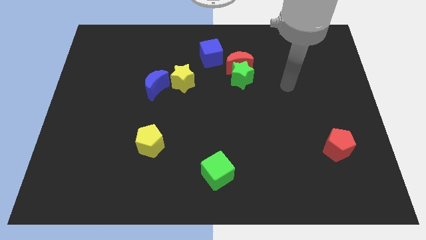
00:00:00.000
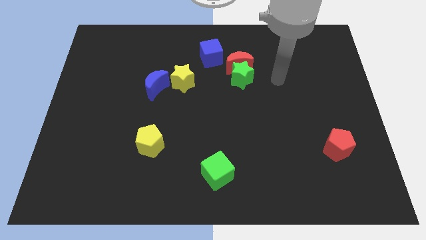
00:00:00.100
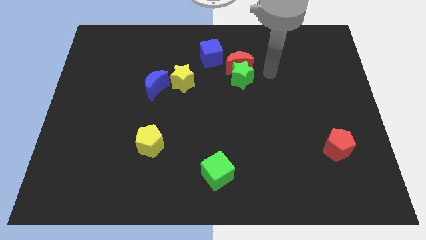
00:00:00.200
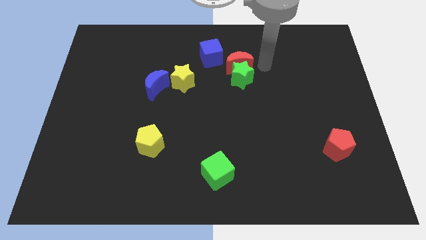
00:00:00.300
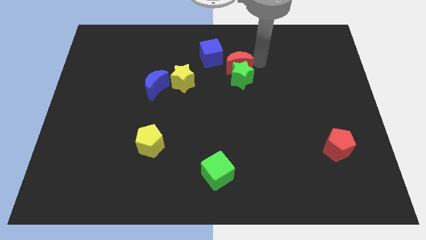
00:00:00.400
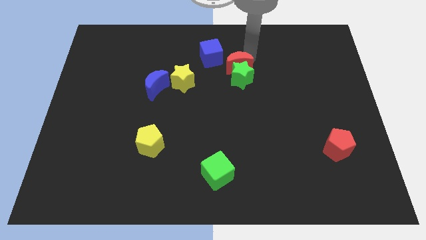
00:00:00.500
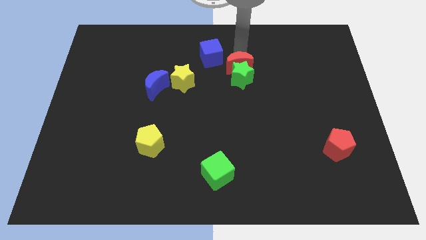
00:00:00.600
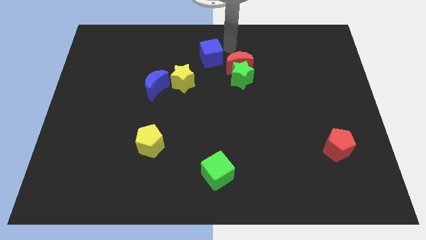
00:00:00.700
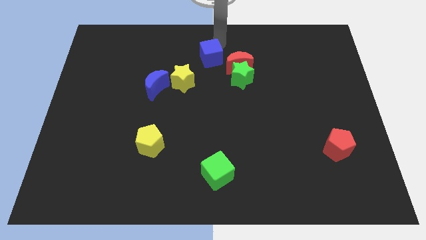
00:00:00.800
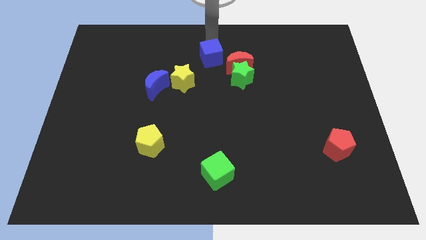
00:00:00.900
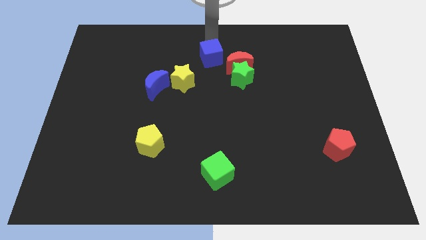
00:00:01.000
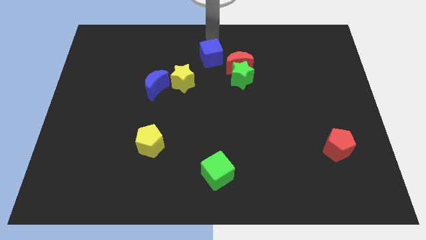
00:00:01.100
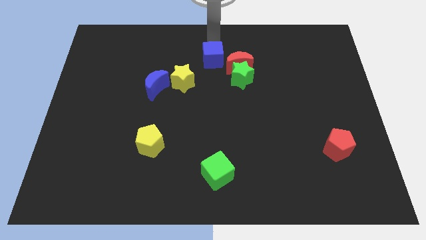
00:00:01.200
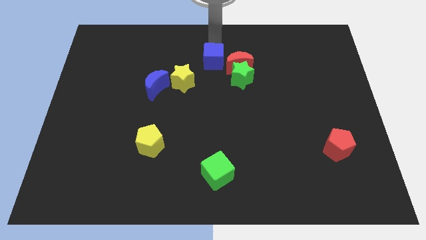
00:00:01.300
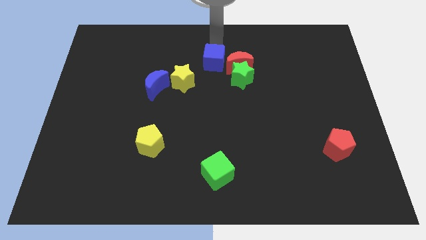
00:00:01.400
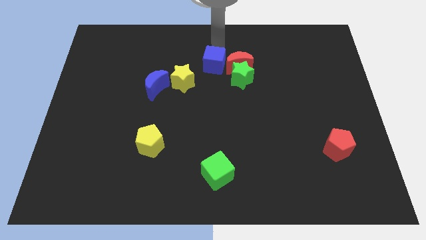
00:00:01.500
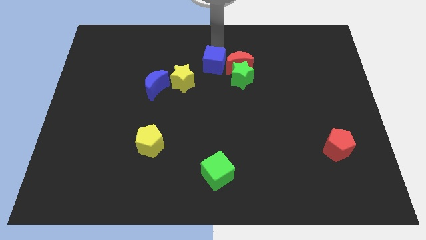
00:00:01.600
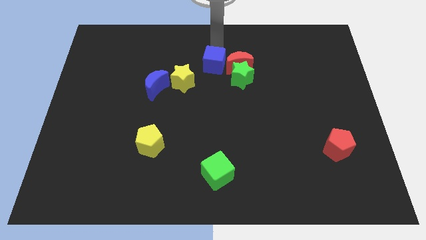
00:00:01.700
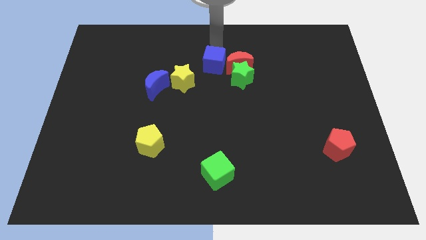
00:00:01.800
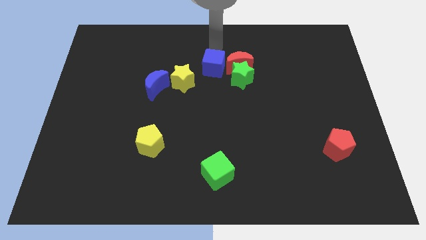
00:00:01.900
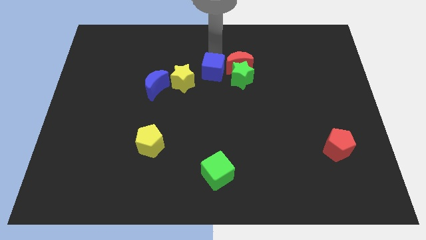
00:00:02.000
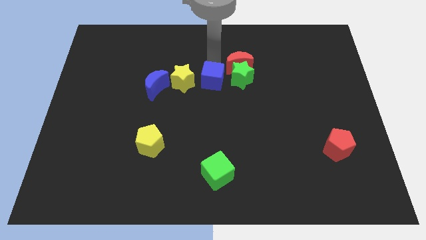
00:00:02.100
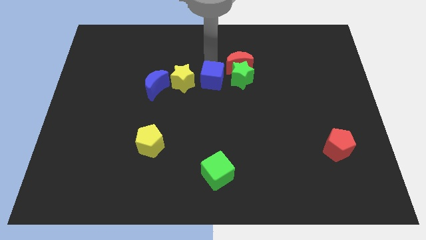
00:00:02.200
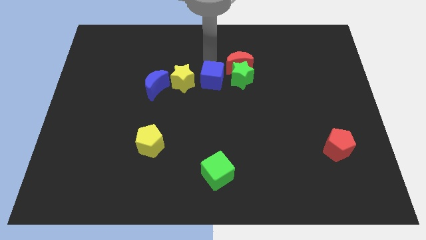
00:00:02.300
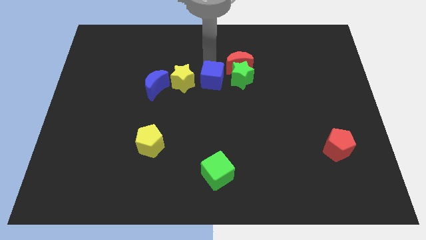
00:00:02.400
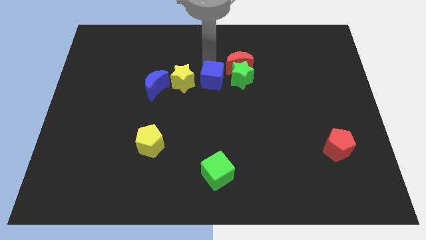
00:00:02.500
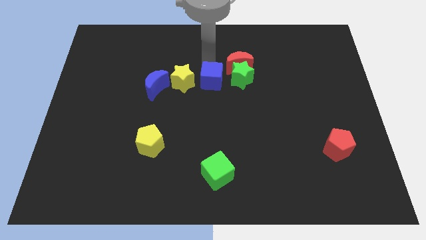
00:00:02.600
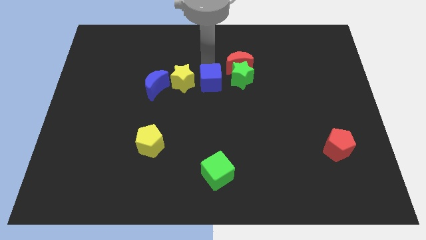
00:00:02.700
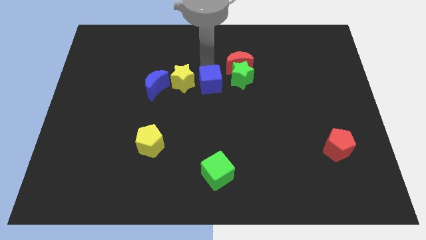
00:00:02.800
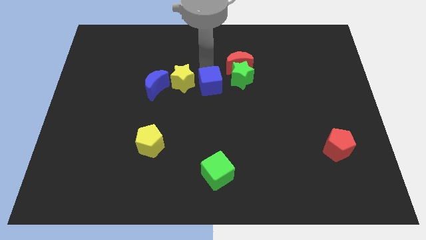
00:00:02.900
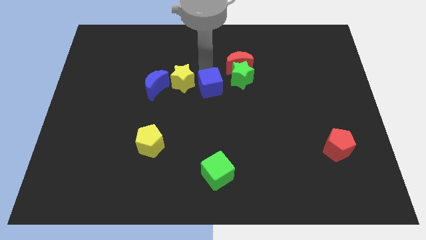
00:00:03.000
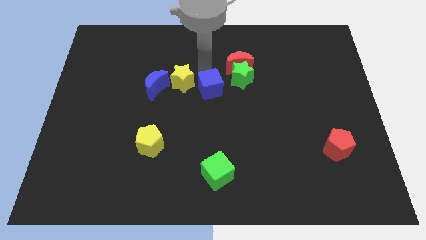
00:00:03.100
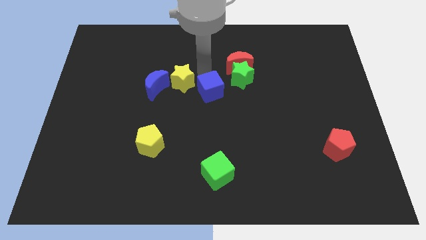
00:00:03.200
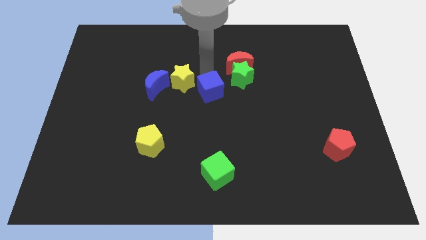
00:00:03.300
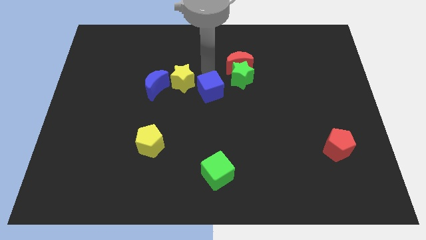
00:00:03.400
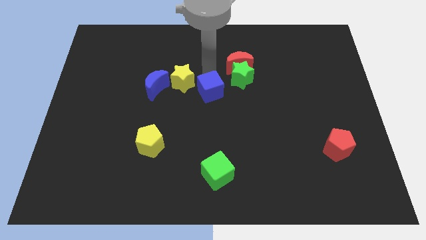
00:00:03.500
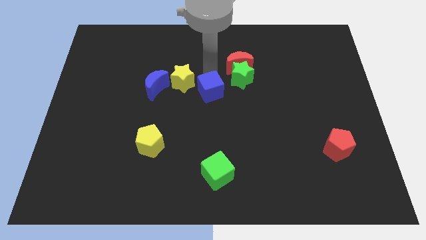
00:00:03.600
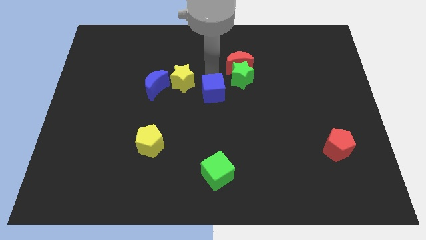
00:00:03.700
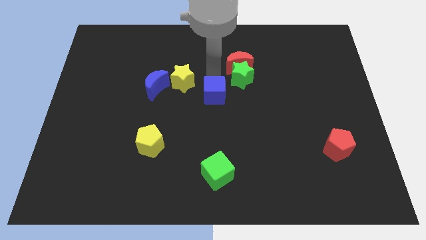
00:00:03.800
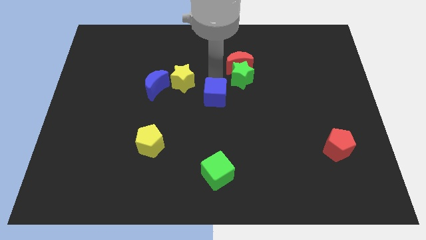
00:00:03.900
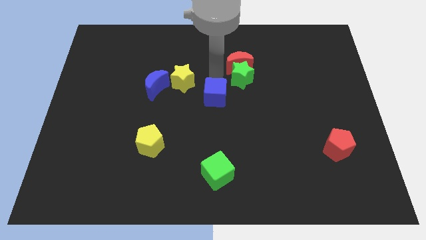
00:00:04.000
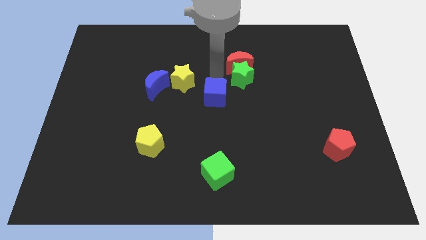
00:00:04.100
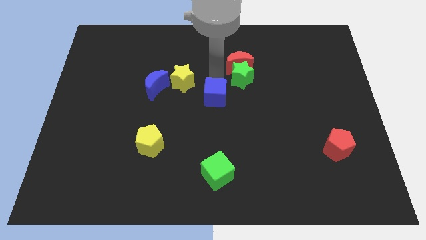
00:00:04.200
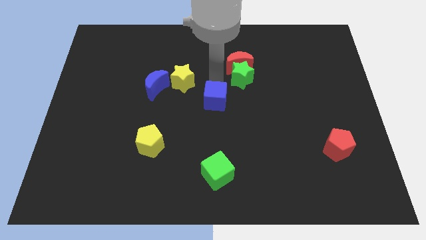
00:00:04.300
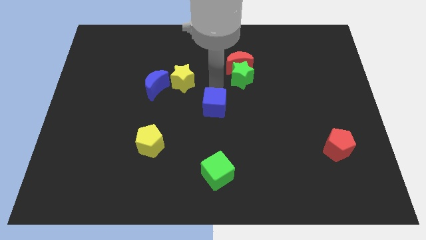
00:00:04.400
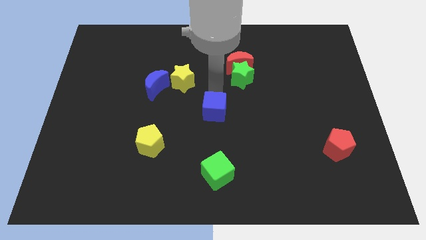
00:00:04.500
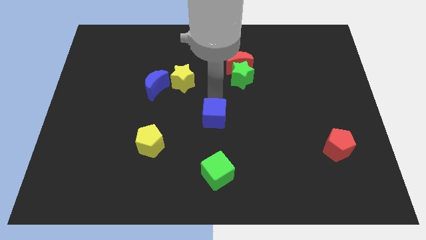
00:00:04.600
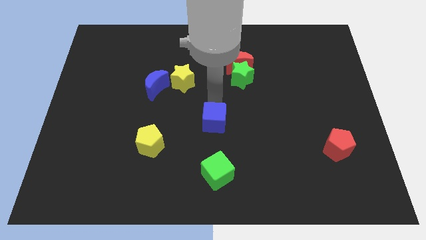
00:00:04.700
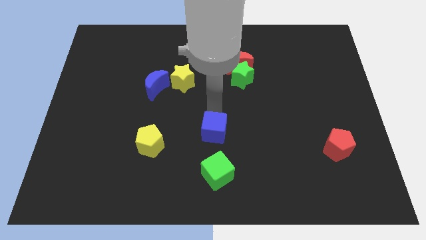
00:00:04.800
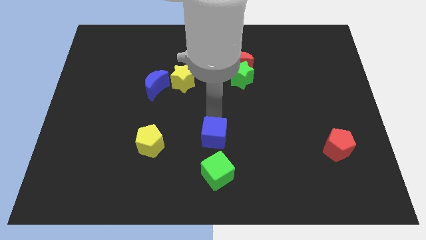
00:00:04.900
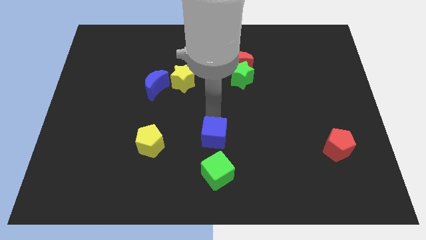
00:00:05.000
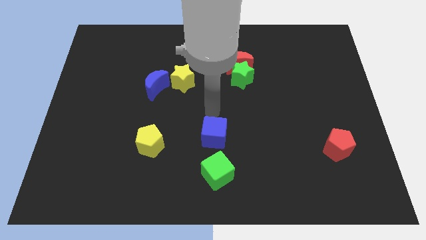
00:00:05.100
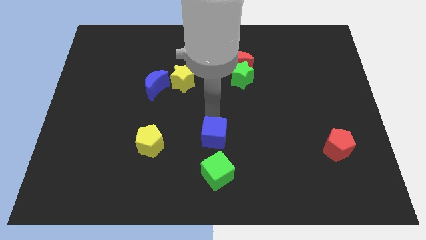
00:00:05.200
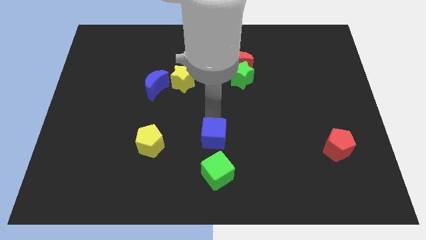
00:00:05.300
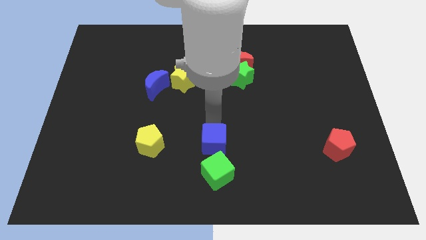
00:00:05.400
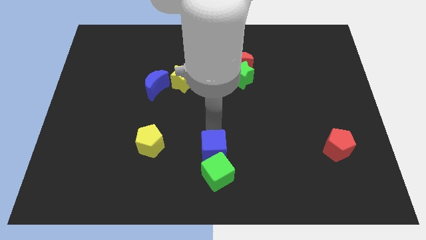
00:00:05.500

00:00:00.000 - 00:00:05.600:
move the blue cube next to the green cube
